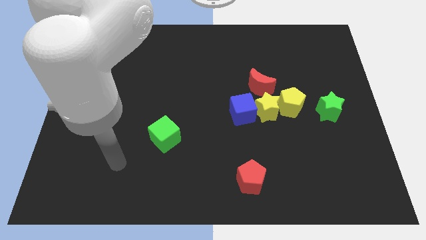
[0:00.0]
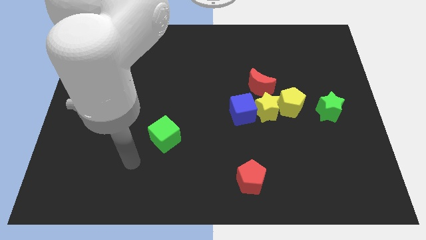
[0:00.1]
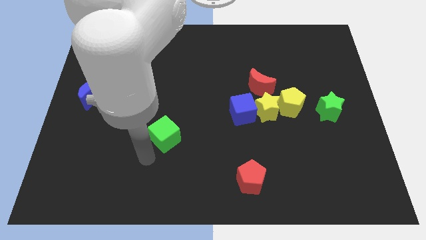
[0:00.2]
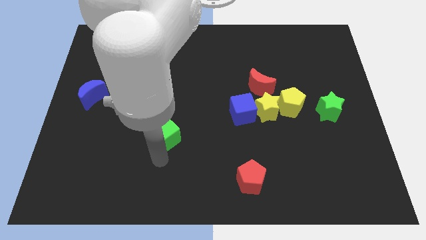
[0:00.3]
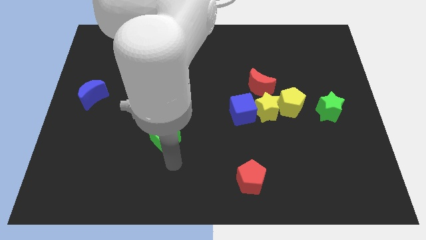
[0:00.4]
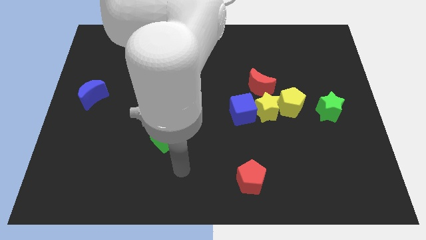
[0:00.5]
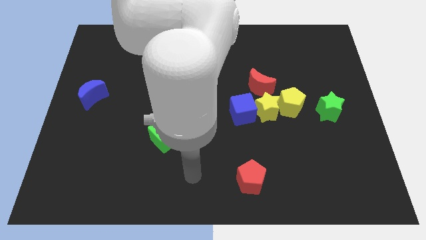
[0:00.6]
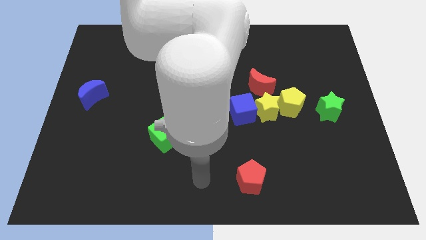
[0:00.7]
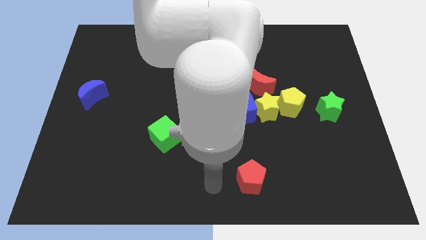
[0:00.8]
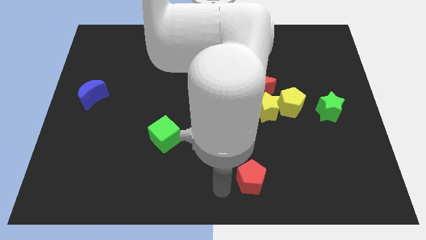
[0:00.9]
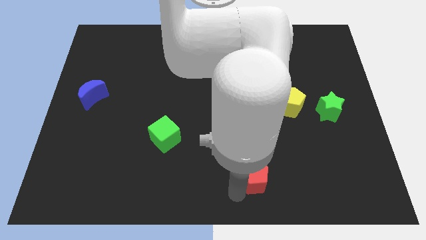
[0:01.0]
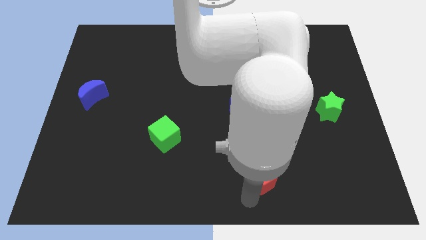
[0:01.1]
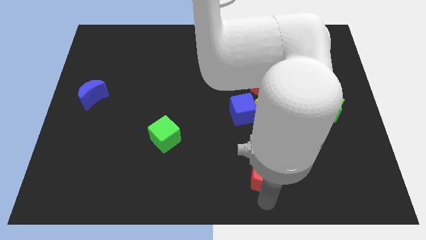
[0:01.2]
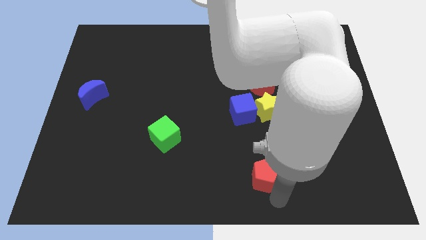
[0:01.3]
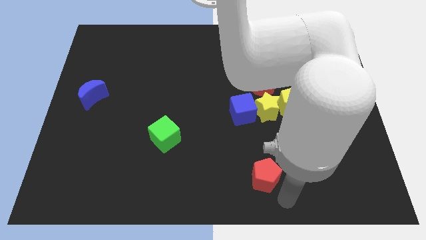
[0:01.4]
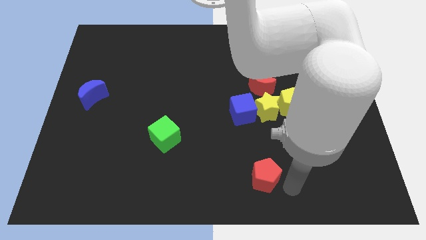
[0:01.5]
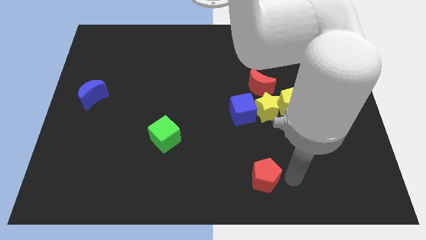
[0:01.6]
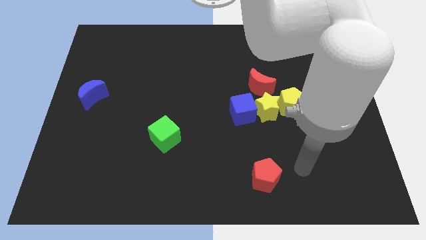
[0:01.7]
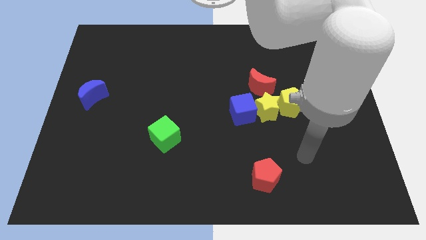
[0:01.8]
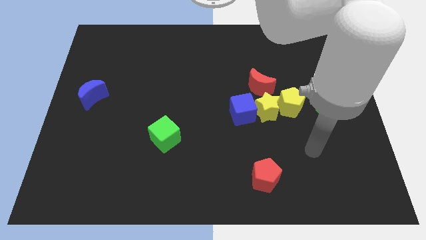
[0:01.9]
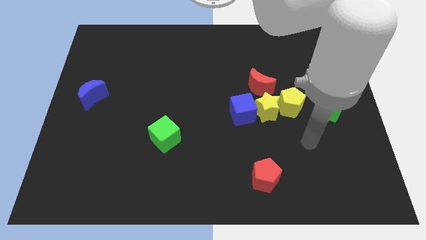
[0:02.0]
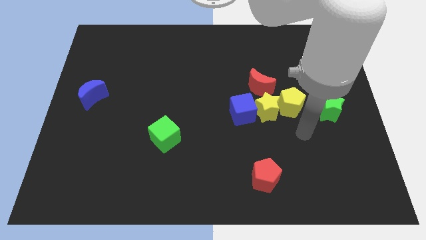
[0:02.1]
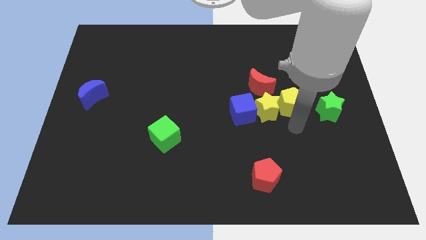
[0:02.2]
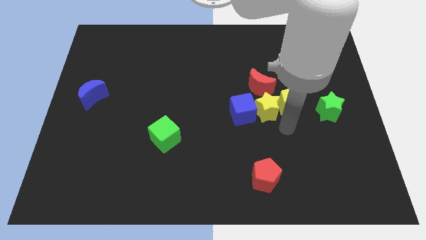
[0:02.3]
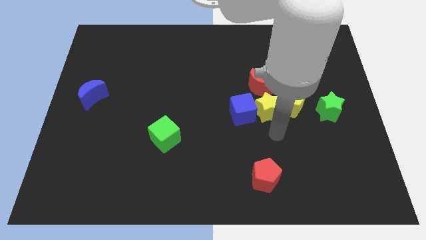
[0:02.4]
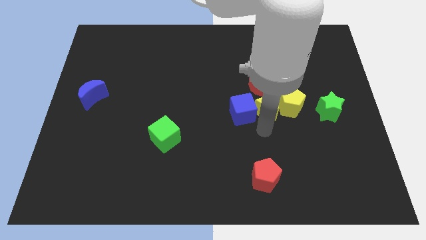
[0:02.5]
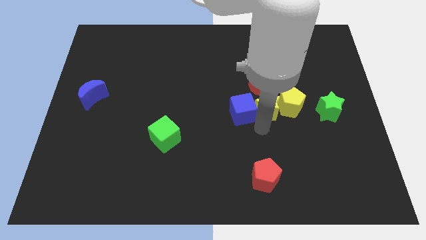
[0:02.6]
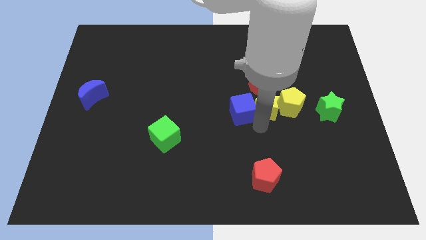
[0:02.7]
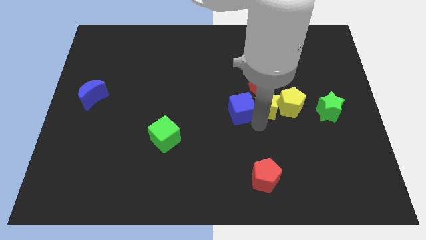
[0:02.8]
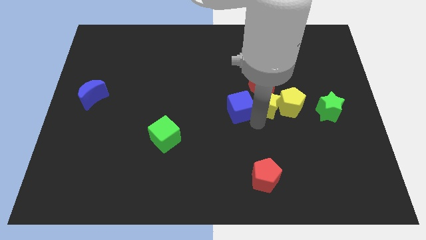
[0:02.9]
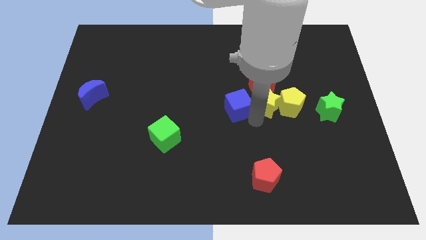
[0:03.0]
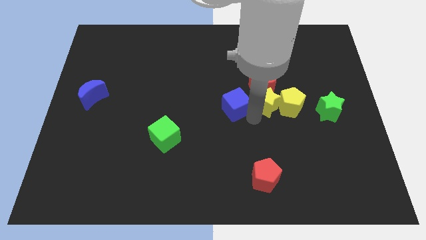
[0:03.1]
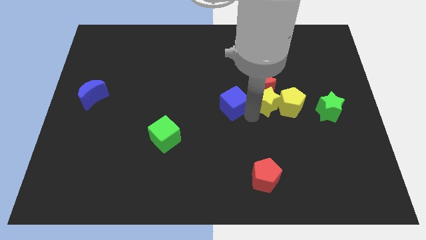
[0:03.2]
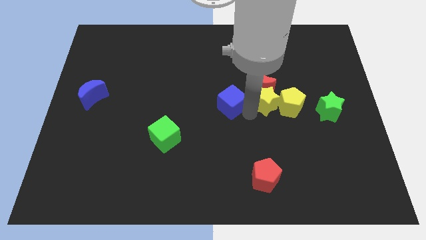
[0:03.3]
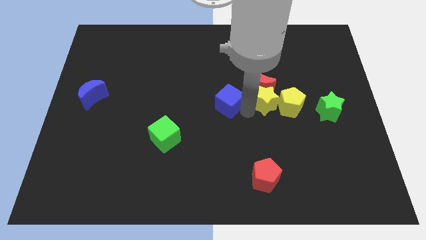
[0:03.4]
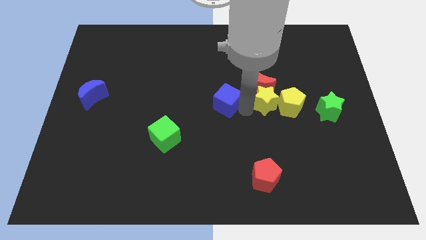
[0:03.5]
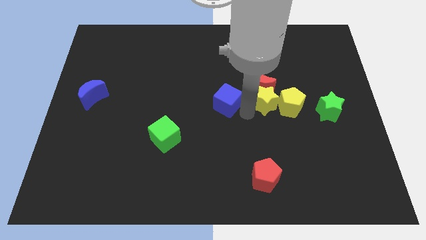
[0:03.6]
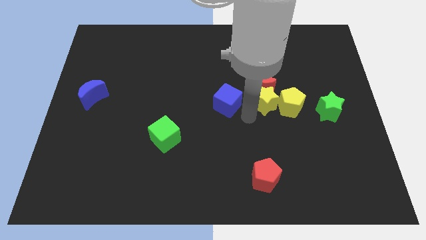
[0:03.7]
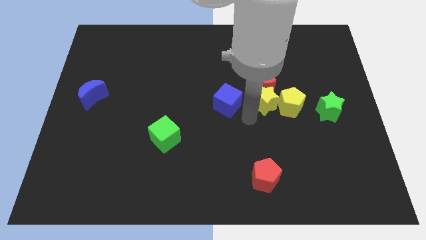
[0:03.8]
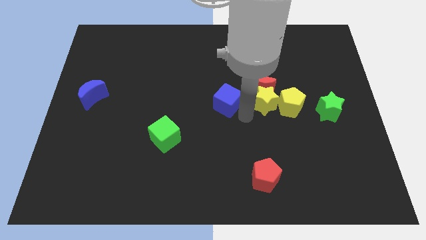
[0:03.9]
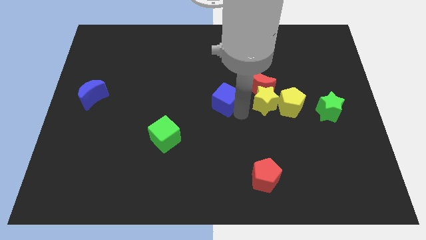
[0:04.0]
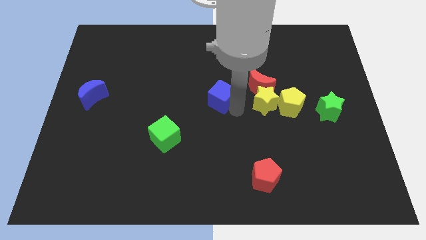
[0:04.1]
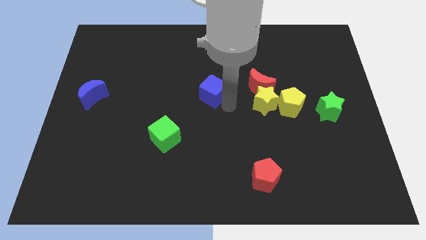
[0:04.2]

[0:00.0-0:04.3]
slightly move the blue cube upwards and left

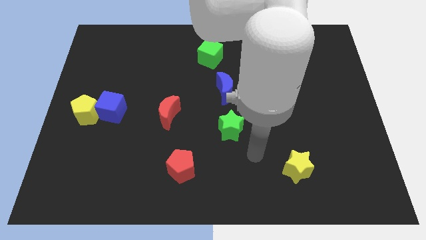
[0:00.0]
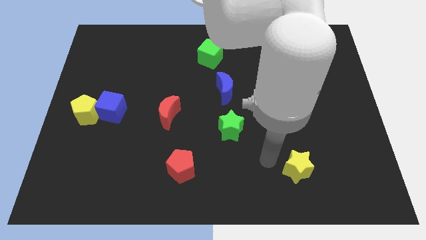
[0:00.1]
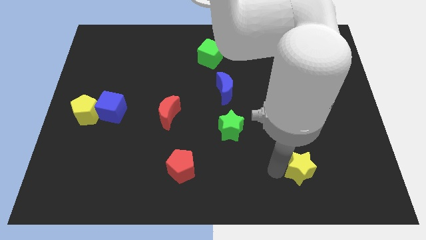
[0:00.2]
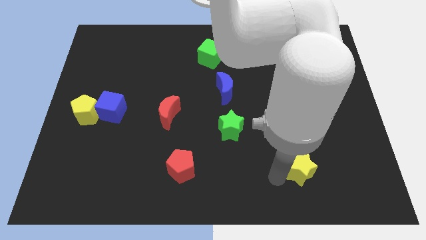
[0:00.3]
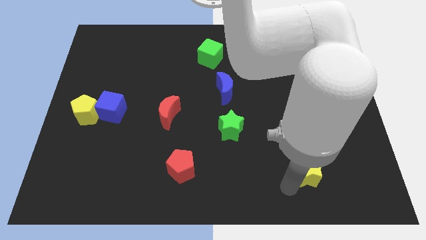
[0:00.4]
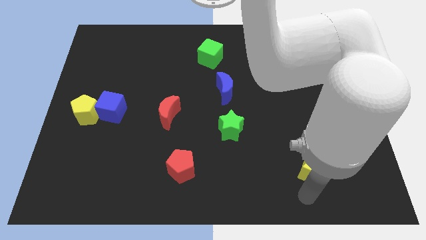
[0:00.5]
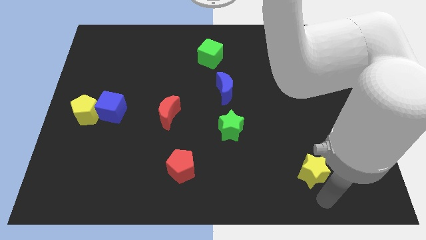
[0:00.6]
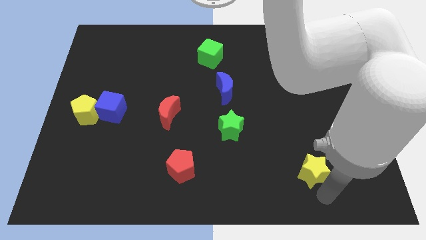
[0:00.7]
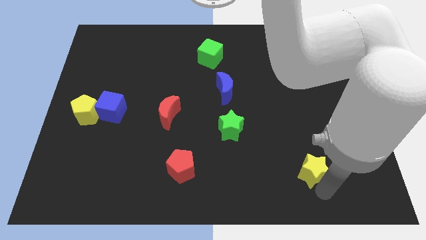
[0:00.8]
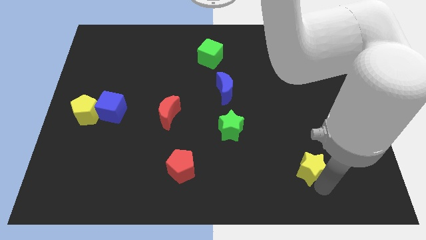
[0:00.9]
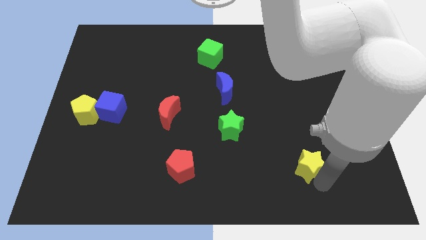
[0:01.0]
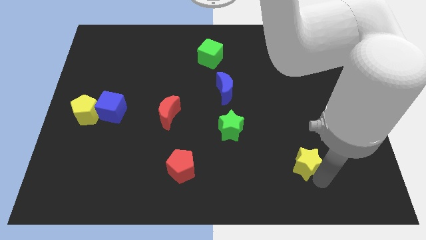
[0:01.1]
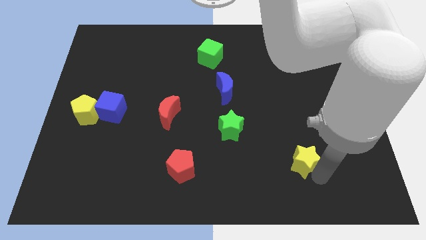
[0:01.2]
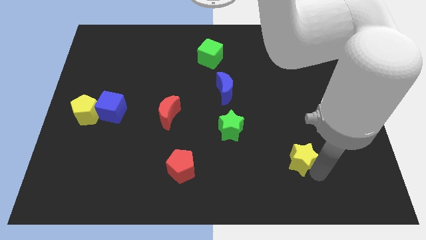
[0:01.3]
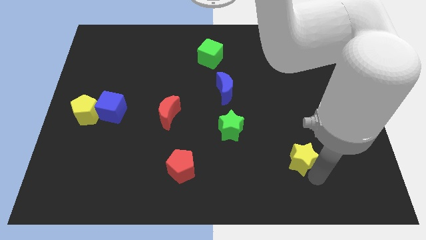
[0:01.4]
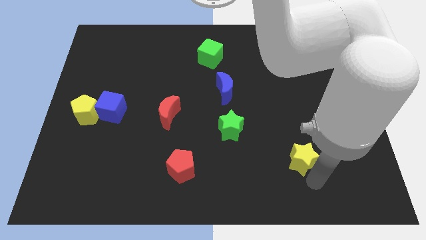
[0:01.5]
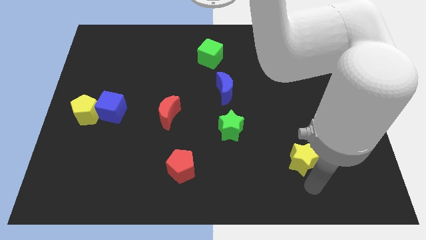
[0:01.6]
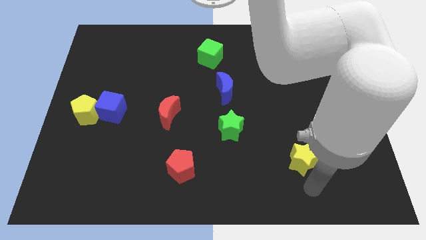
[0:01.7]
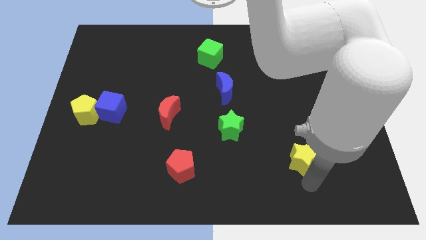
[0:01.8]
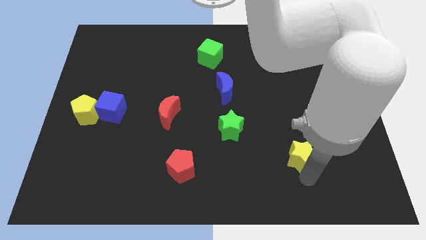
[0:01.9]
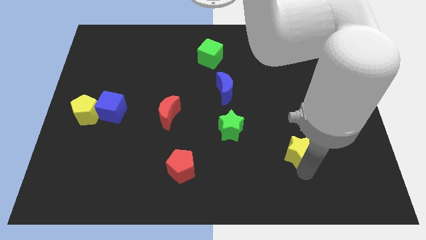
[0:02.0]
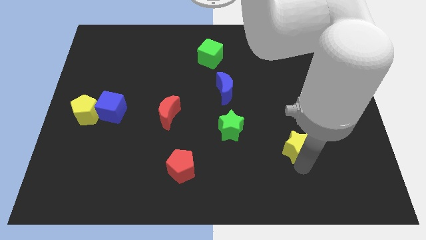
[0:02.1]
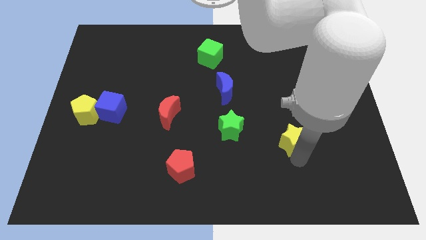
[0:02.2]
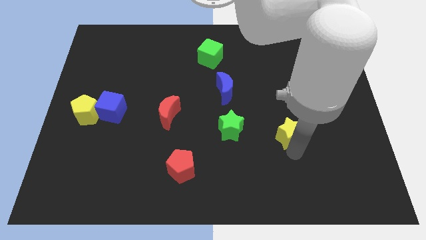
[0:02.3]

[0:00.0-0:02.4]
slide the yellow star upwards a little

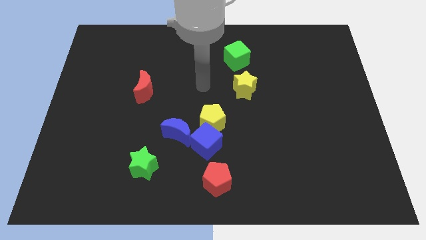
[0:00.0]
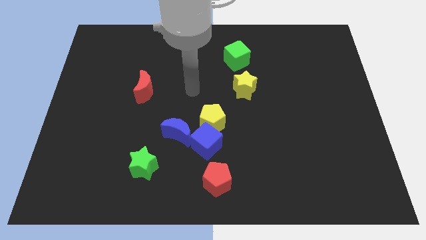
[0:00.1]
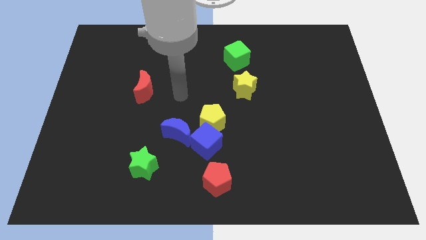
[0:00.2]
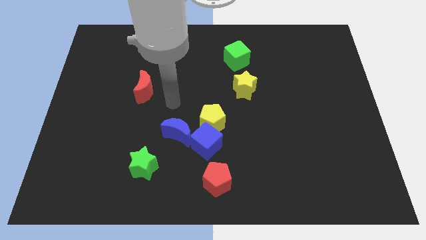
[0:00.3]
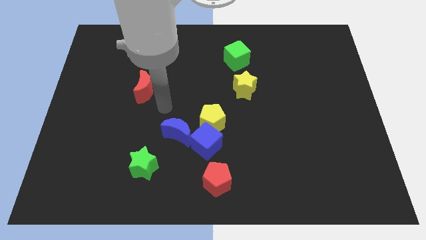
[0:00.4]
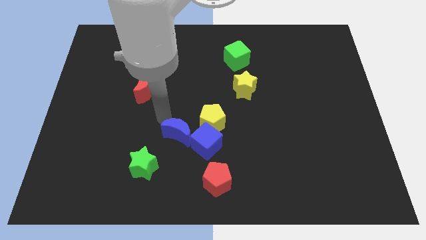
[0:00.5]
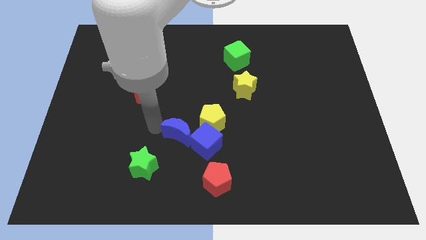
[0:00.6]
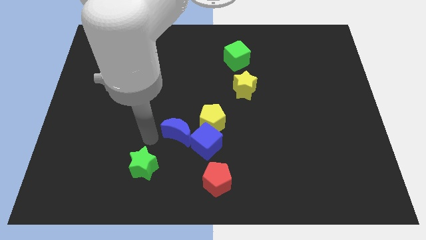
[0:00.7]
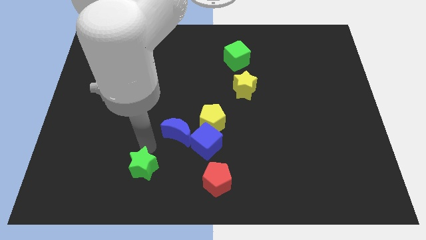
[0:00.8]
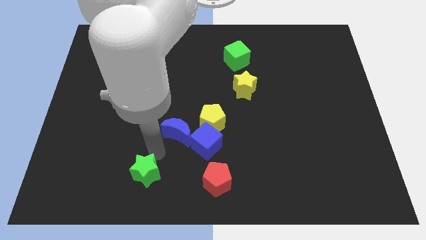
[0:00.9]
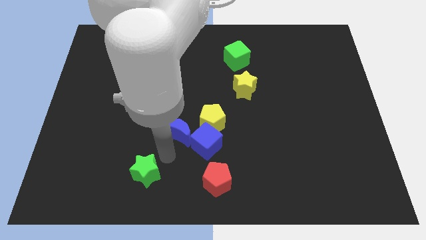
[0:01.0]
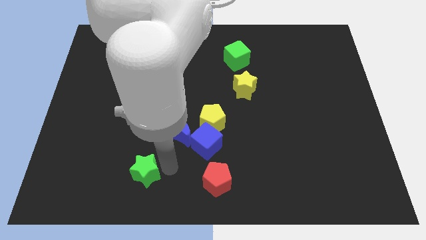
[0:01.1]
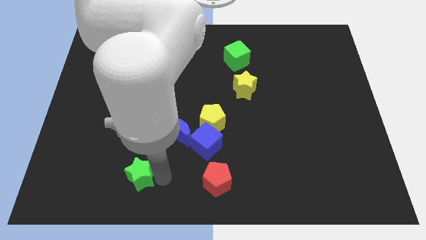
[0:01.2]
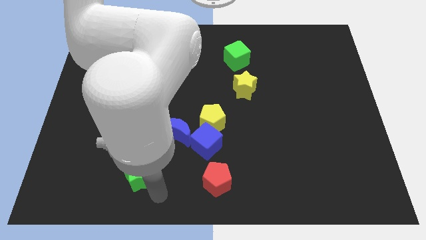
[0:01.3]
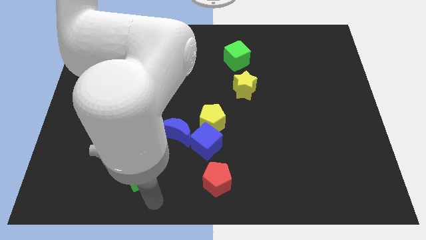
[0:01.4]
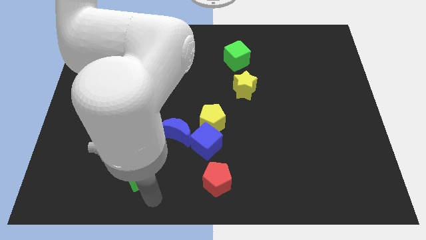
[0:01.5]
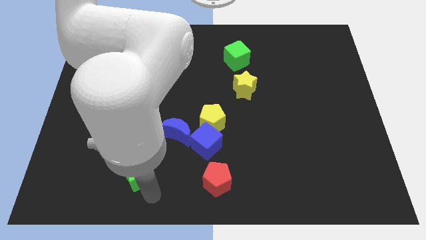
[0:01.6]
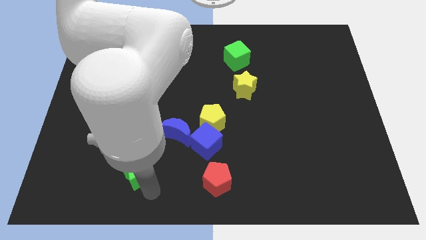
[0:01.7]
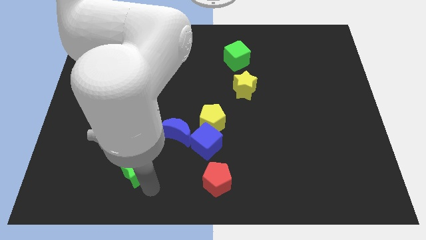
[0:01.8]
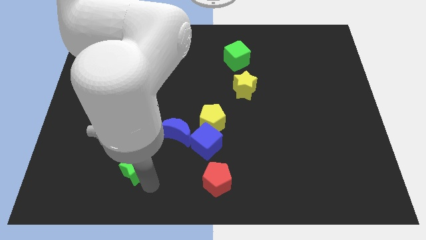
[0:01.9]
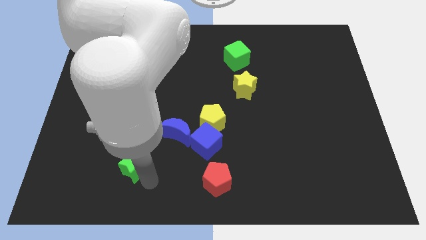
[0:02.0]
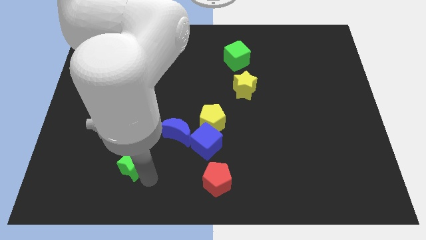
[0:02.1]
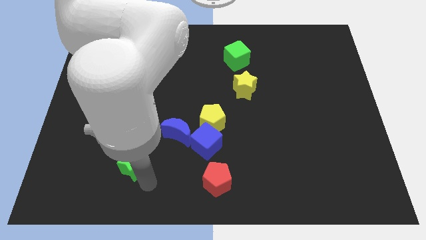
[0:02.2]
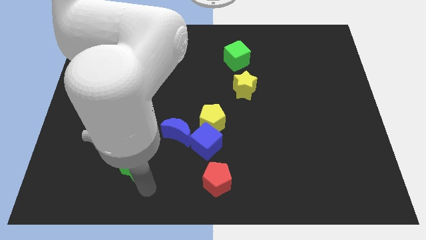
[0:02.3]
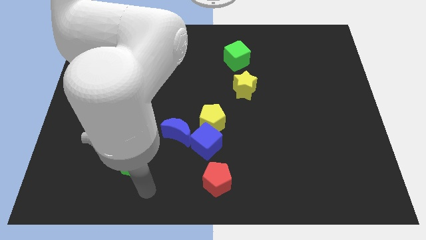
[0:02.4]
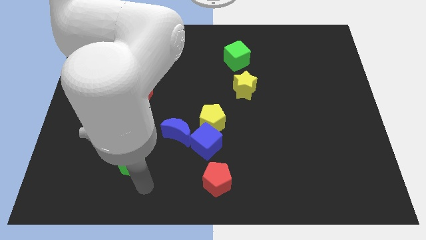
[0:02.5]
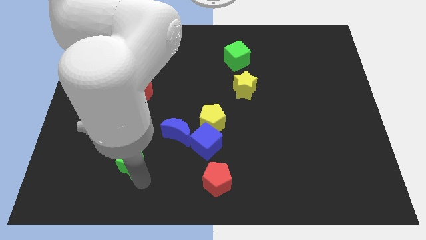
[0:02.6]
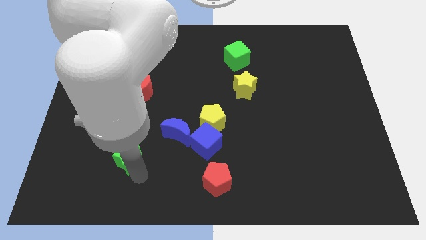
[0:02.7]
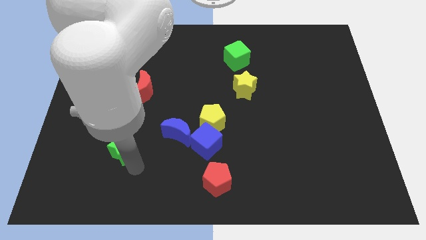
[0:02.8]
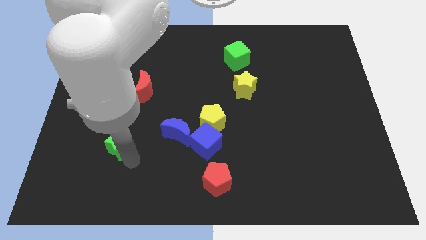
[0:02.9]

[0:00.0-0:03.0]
slightly move the green star diagonally upwards and to the left
